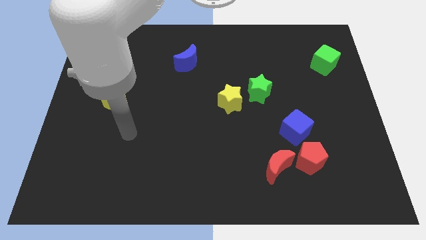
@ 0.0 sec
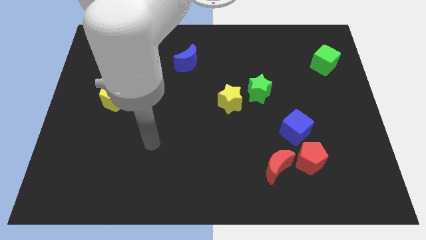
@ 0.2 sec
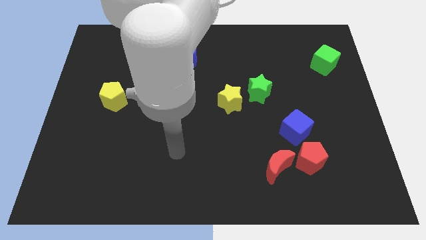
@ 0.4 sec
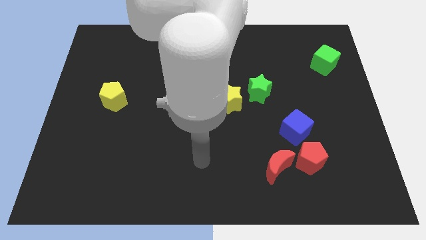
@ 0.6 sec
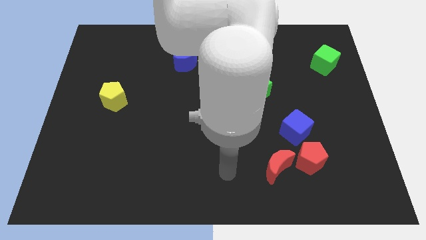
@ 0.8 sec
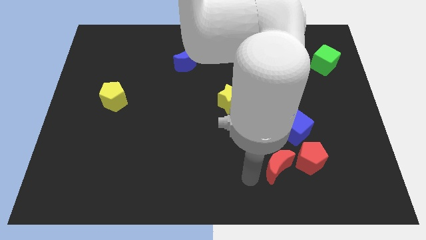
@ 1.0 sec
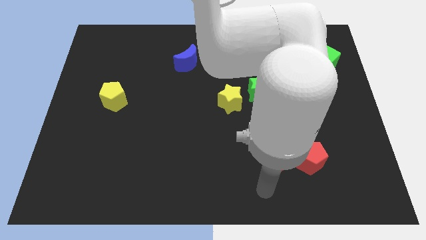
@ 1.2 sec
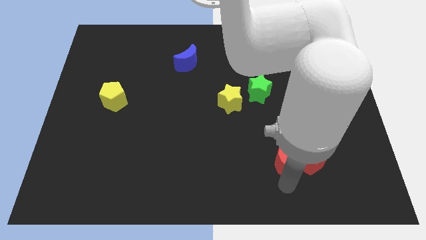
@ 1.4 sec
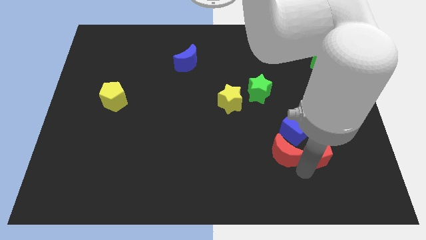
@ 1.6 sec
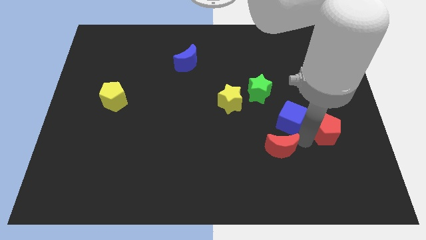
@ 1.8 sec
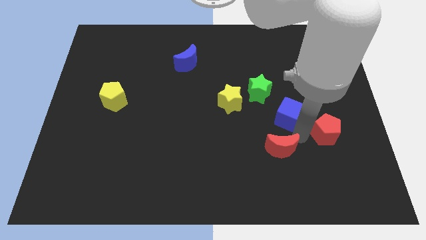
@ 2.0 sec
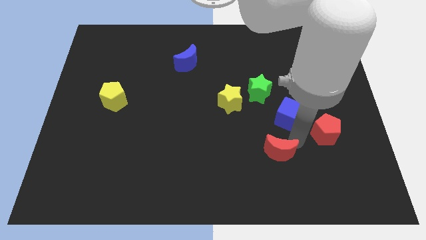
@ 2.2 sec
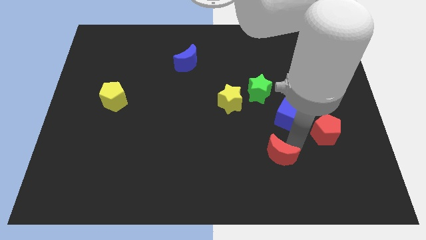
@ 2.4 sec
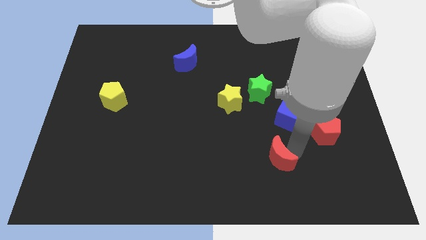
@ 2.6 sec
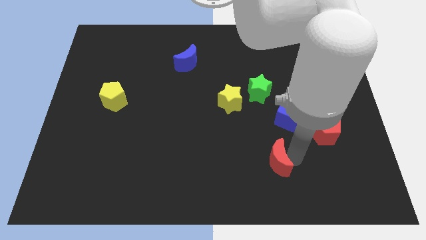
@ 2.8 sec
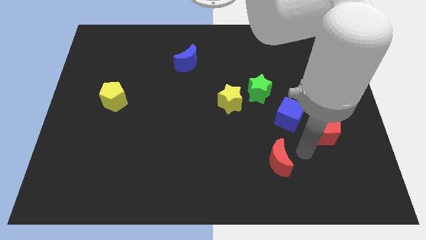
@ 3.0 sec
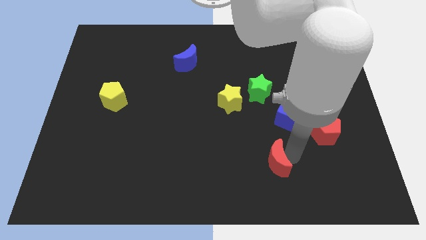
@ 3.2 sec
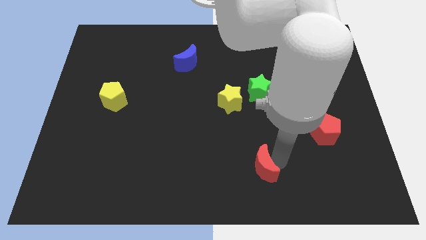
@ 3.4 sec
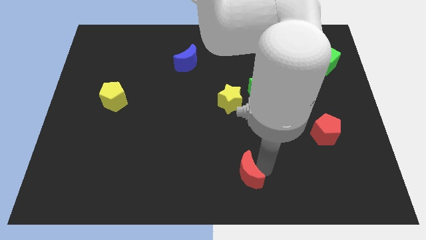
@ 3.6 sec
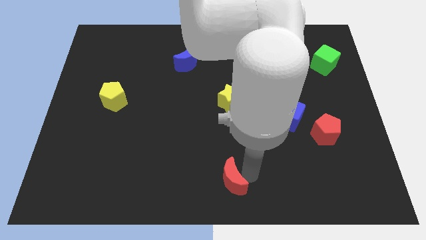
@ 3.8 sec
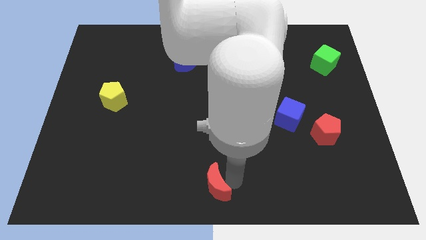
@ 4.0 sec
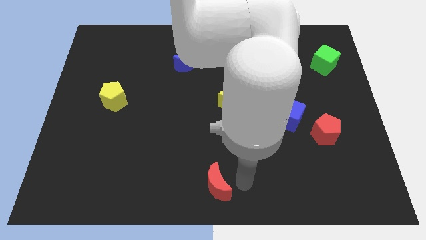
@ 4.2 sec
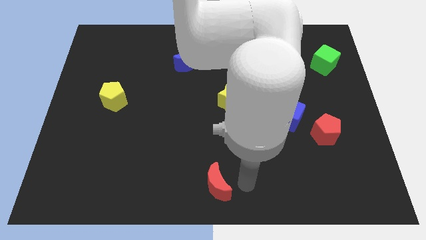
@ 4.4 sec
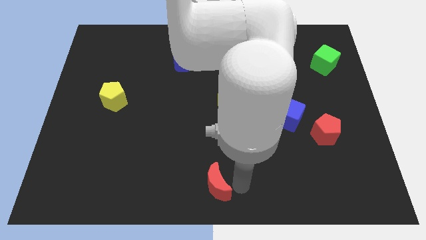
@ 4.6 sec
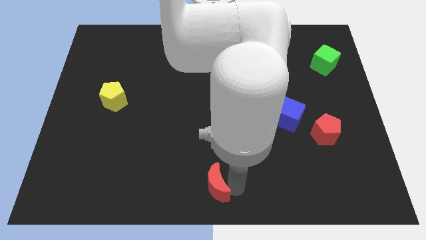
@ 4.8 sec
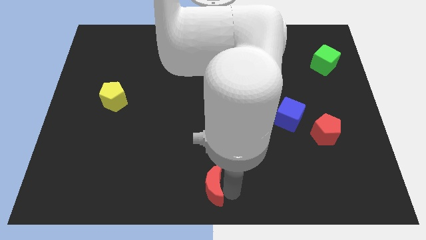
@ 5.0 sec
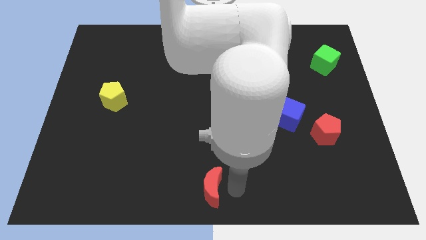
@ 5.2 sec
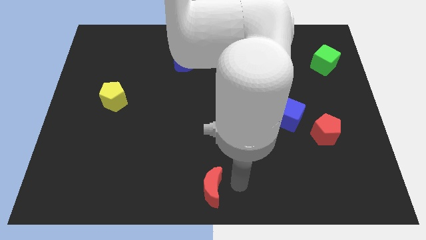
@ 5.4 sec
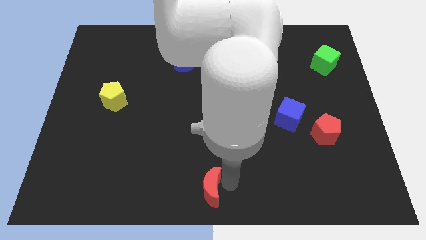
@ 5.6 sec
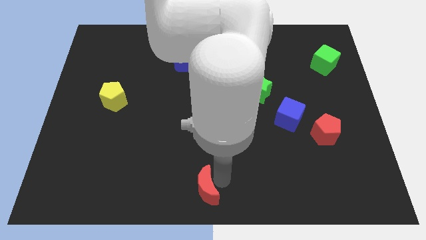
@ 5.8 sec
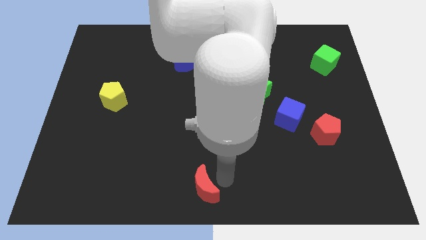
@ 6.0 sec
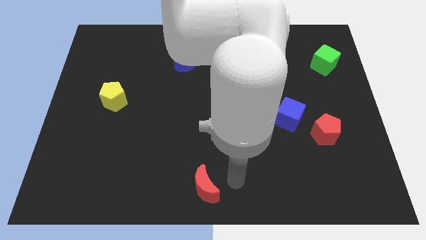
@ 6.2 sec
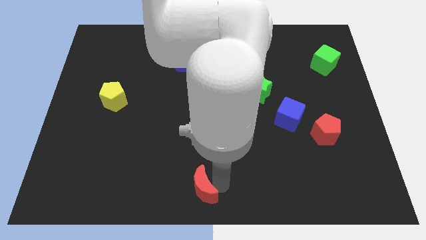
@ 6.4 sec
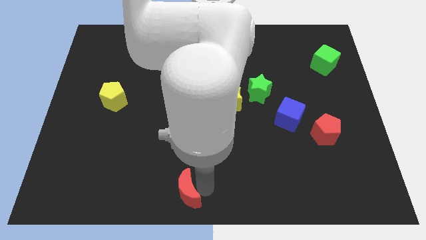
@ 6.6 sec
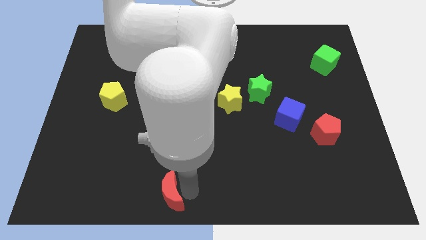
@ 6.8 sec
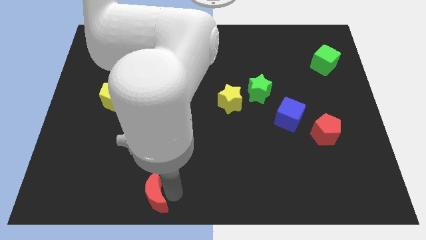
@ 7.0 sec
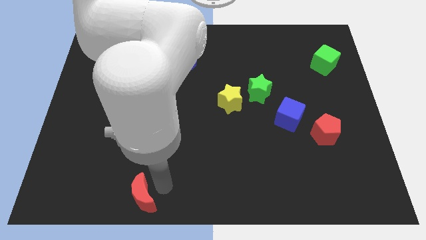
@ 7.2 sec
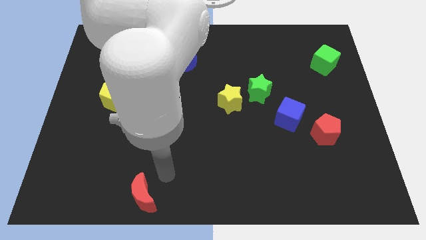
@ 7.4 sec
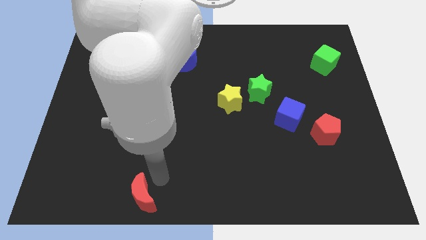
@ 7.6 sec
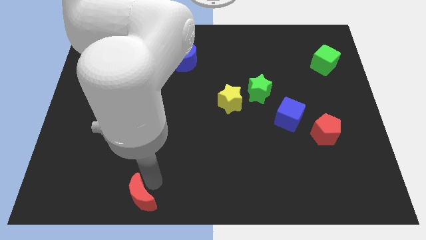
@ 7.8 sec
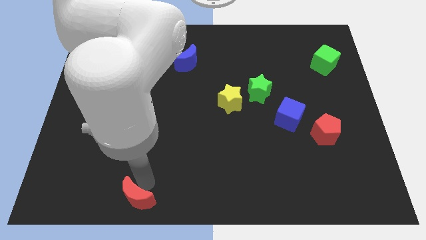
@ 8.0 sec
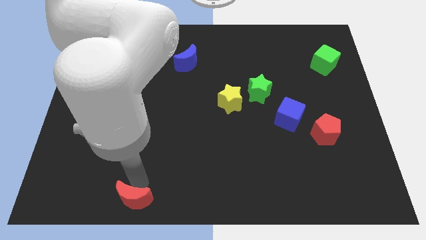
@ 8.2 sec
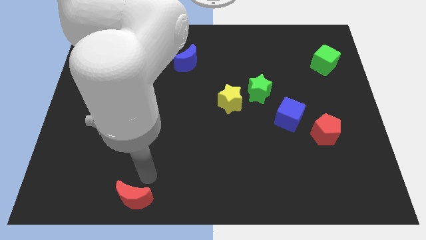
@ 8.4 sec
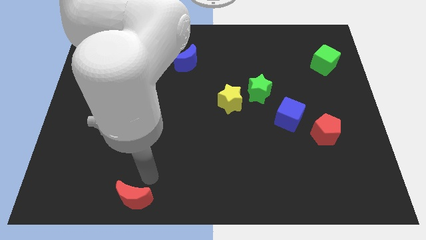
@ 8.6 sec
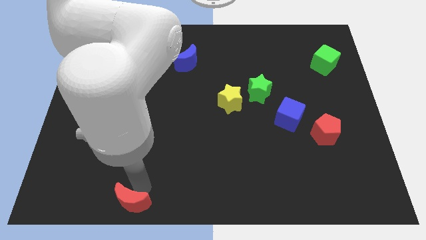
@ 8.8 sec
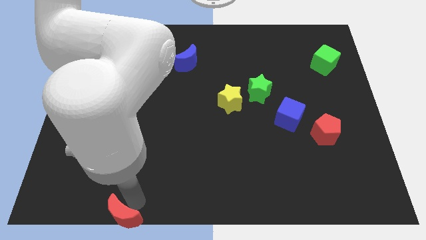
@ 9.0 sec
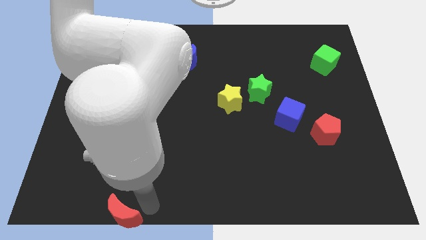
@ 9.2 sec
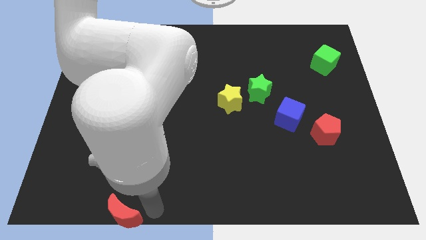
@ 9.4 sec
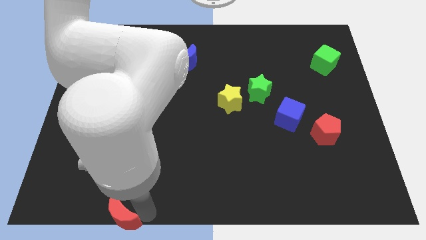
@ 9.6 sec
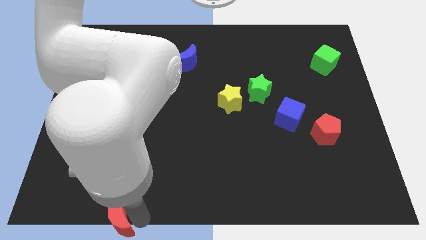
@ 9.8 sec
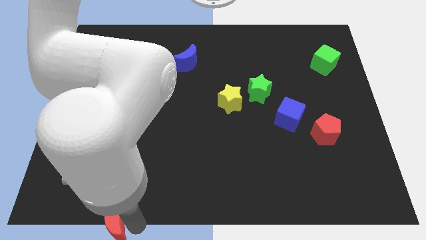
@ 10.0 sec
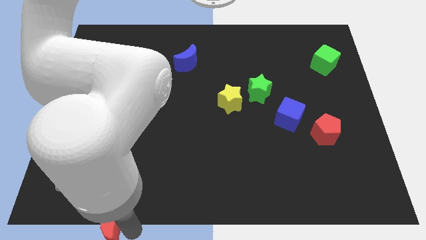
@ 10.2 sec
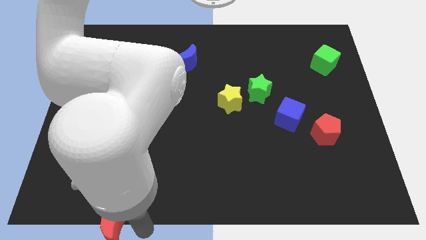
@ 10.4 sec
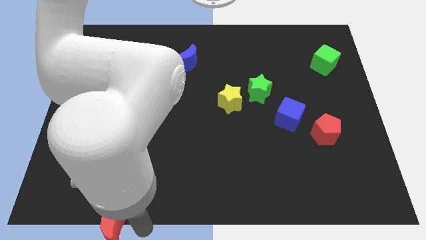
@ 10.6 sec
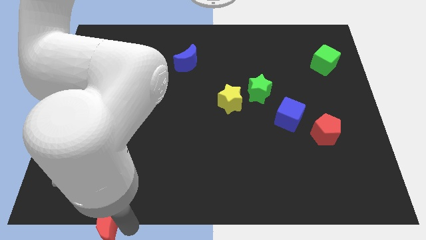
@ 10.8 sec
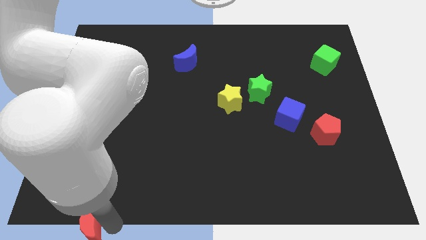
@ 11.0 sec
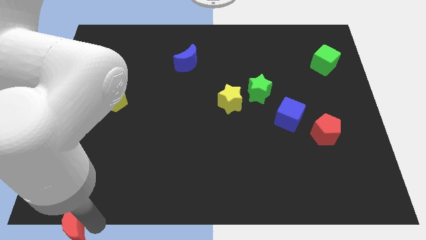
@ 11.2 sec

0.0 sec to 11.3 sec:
move the red moon to the bottom left of the board
